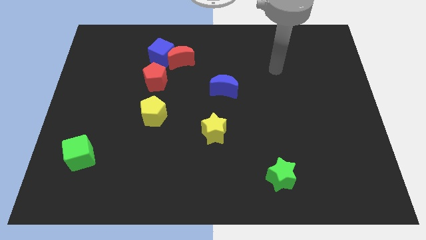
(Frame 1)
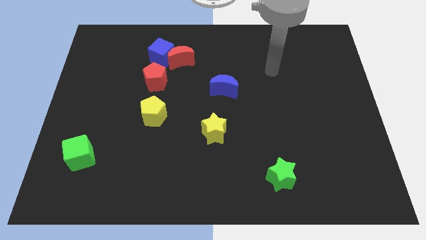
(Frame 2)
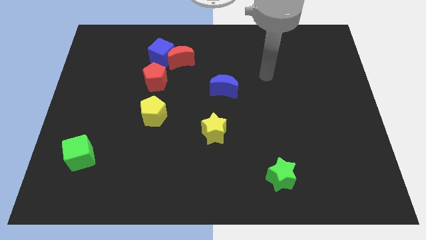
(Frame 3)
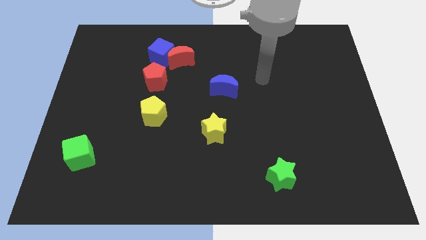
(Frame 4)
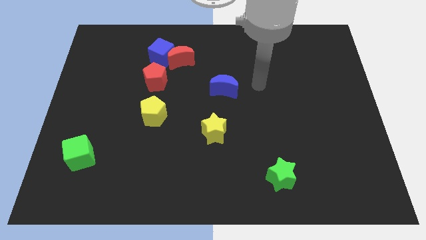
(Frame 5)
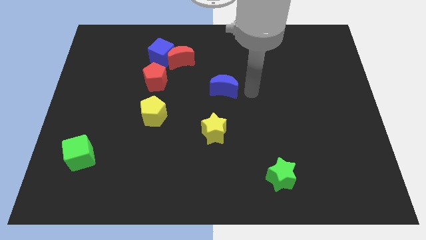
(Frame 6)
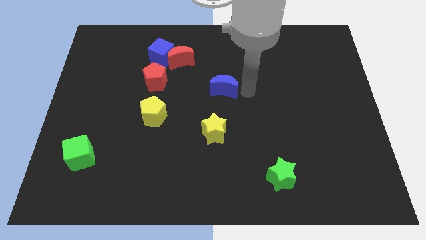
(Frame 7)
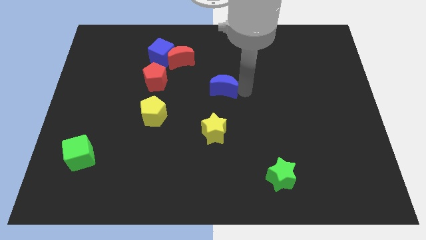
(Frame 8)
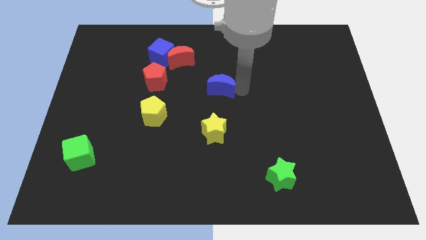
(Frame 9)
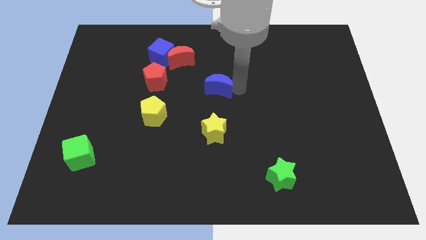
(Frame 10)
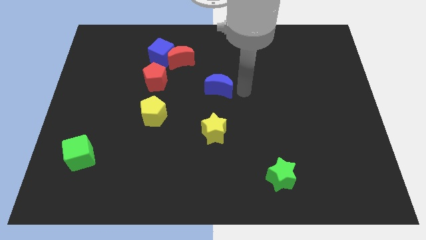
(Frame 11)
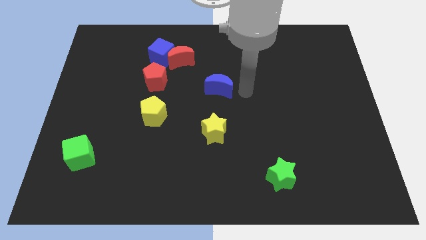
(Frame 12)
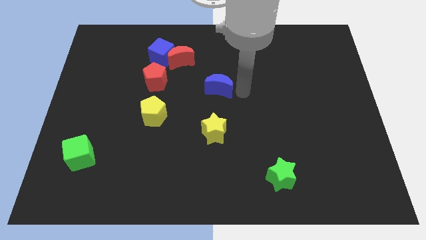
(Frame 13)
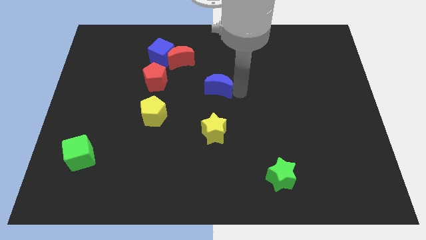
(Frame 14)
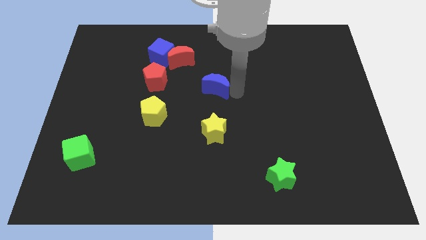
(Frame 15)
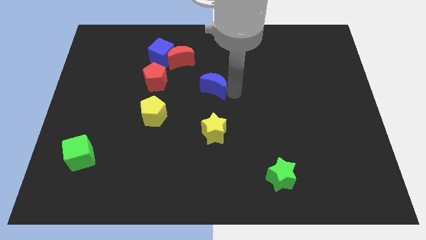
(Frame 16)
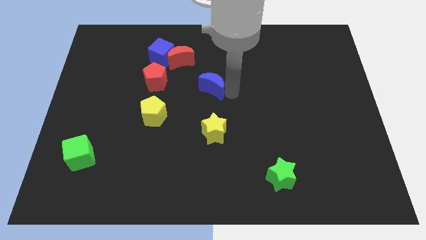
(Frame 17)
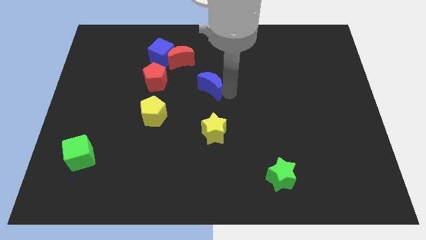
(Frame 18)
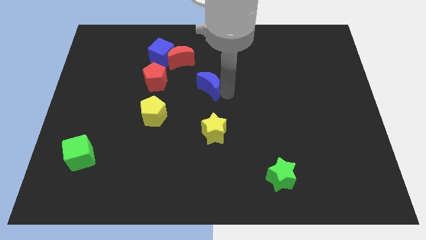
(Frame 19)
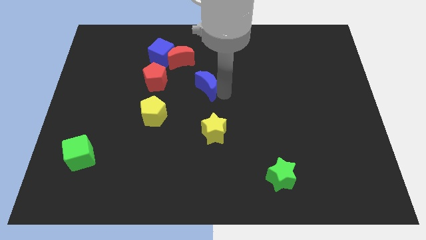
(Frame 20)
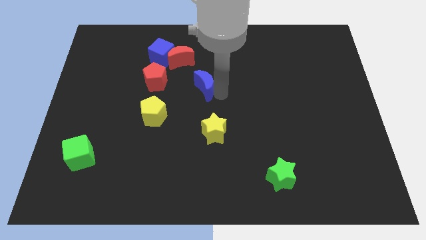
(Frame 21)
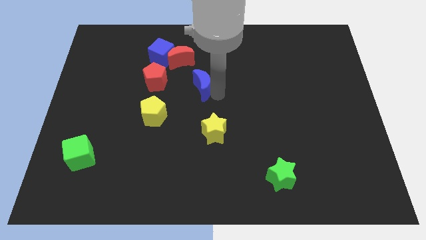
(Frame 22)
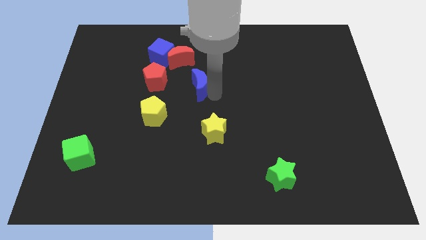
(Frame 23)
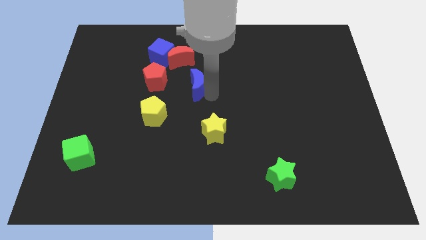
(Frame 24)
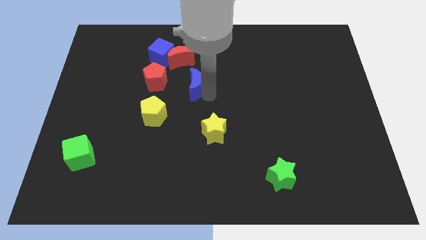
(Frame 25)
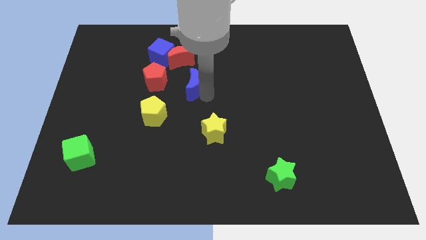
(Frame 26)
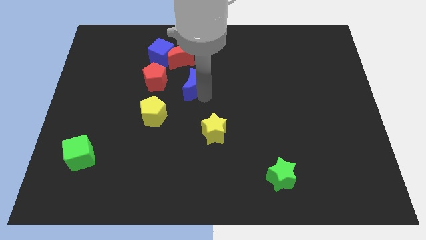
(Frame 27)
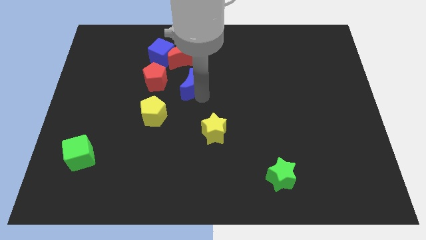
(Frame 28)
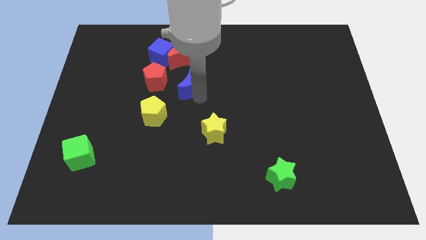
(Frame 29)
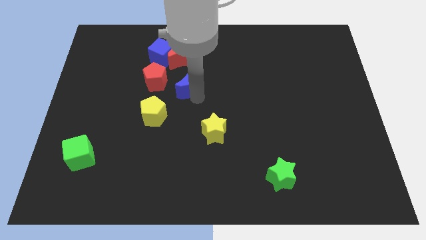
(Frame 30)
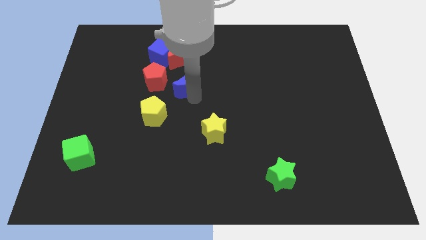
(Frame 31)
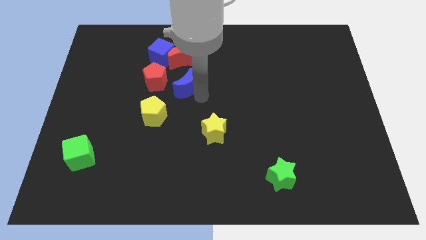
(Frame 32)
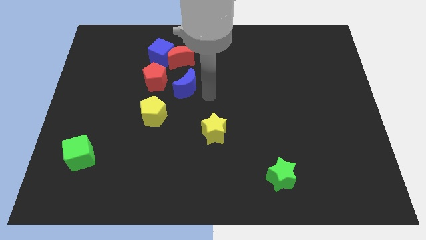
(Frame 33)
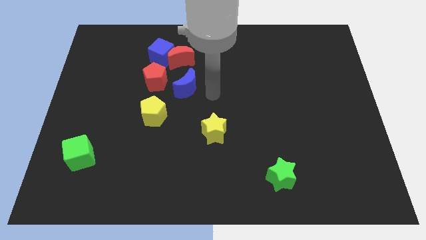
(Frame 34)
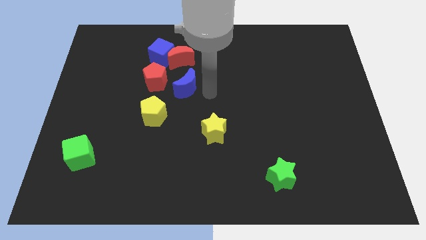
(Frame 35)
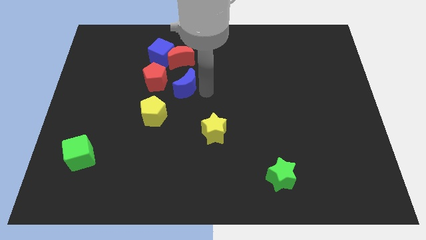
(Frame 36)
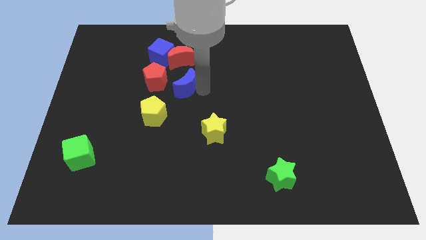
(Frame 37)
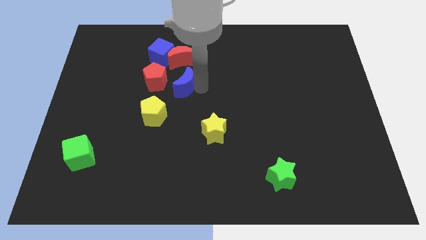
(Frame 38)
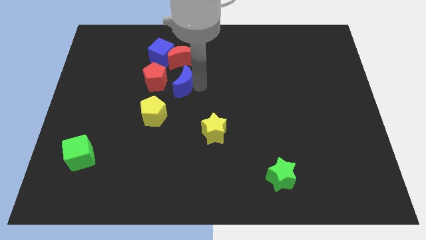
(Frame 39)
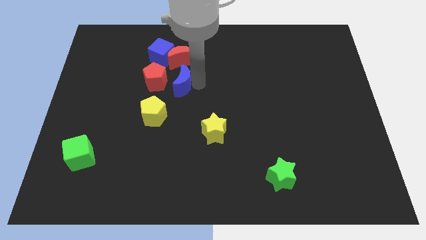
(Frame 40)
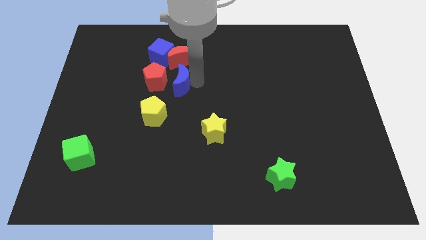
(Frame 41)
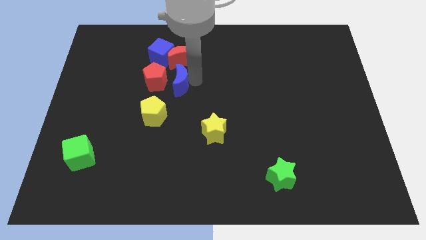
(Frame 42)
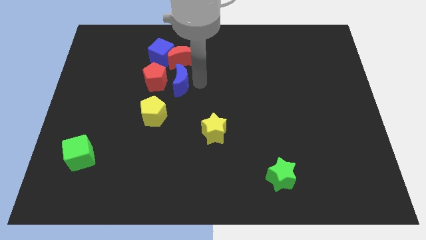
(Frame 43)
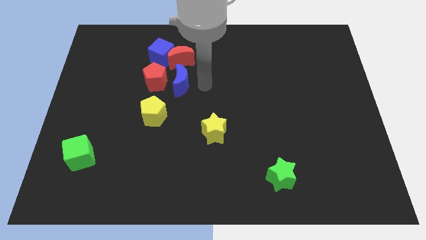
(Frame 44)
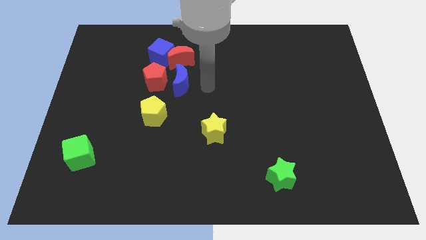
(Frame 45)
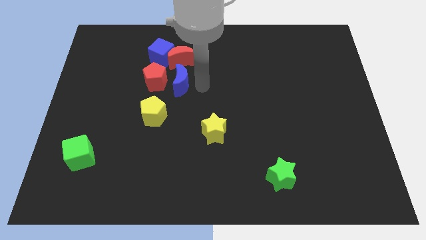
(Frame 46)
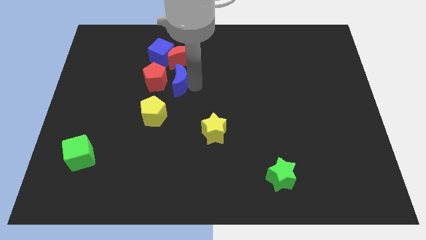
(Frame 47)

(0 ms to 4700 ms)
slide the blue moon towards the red pentagon

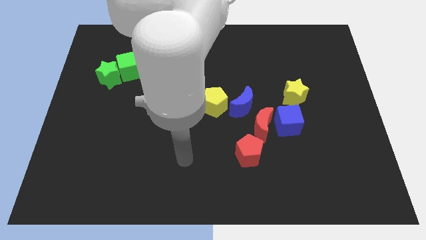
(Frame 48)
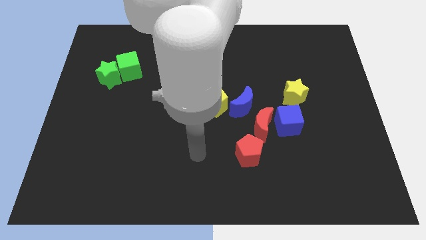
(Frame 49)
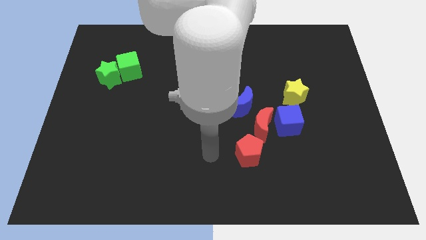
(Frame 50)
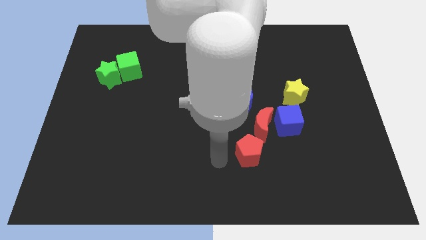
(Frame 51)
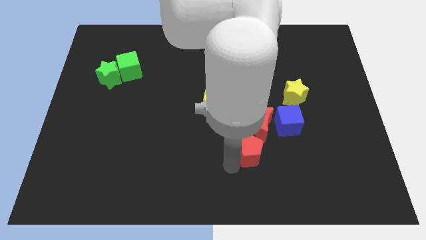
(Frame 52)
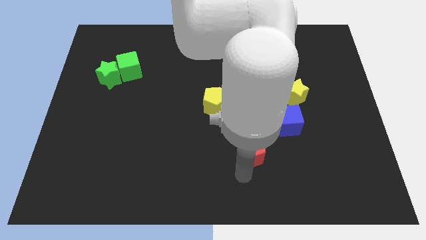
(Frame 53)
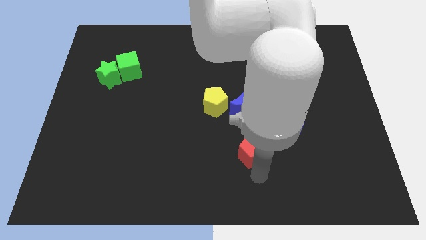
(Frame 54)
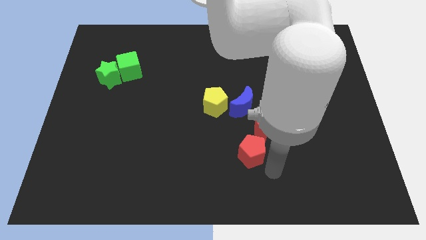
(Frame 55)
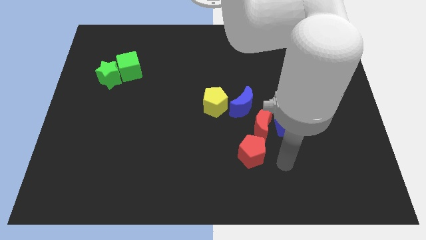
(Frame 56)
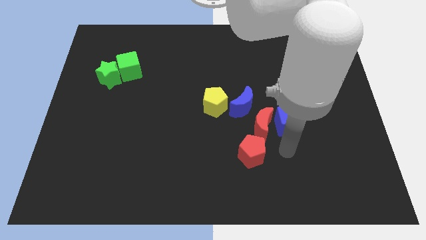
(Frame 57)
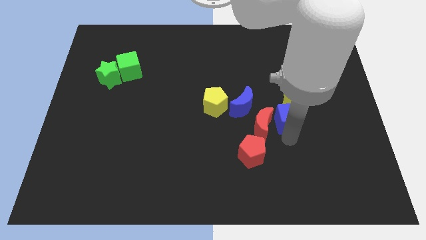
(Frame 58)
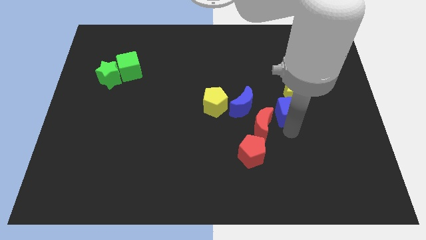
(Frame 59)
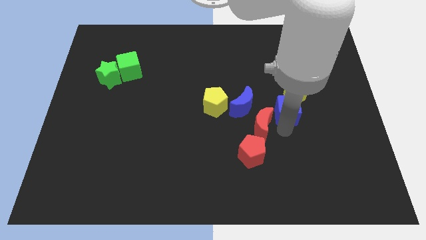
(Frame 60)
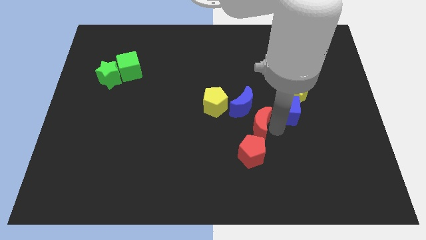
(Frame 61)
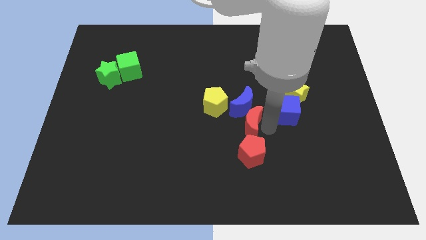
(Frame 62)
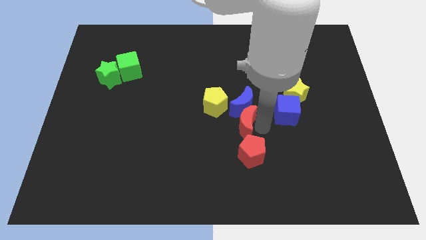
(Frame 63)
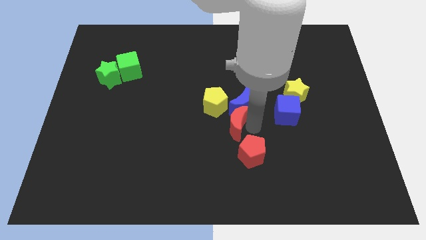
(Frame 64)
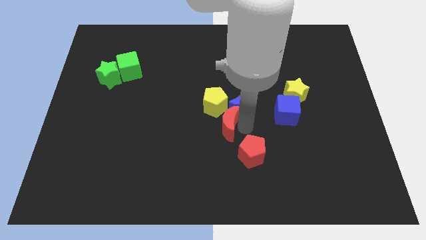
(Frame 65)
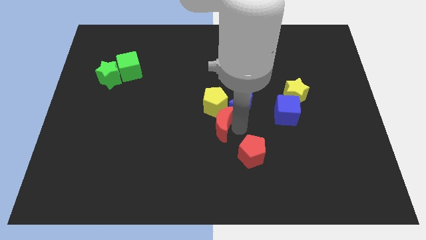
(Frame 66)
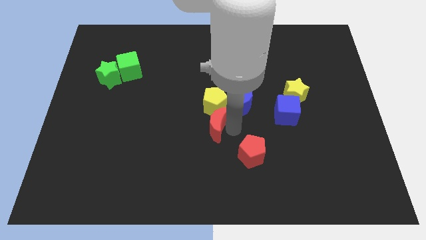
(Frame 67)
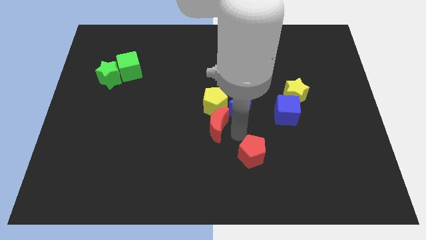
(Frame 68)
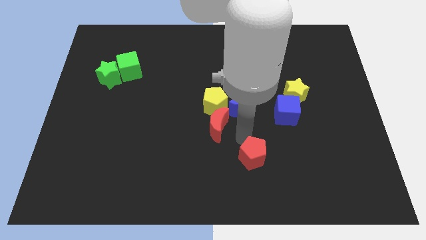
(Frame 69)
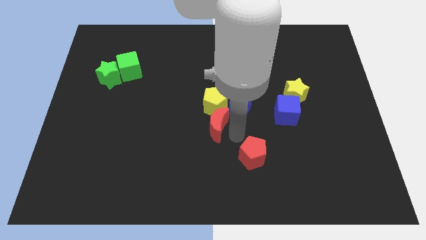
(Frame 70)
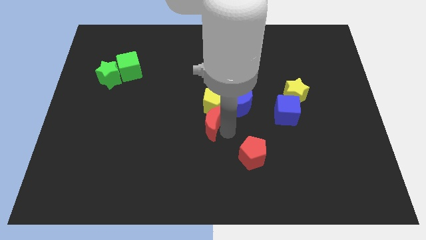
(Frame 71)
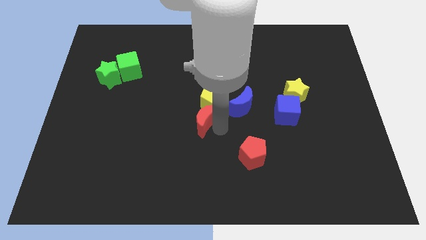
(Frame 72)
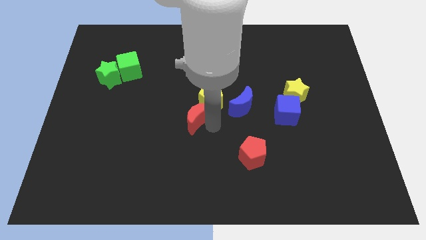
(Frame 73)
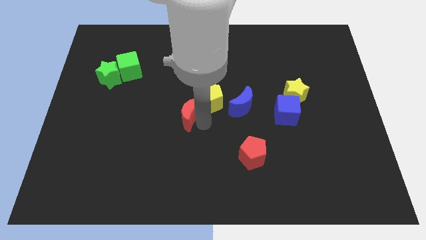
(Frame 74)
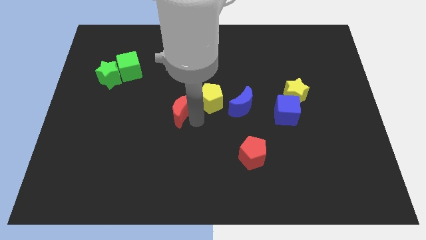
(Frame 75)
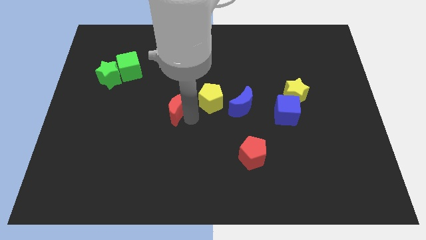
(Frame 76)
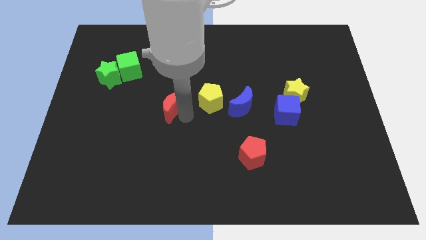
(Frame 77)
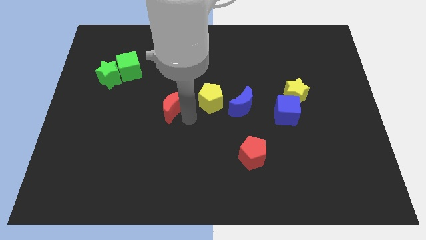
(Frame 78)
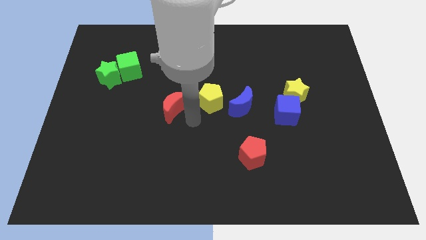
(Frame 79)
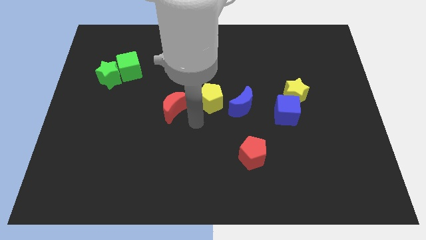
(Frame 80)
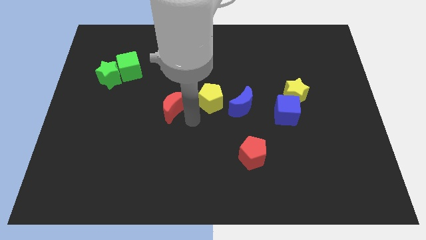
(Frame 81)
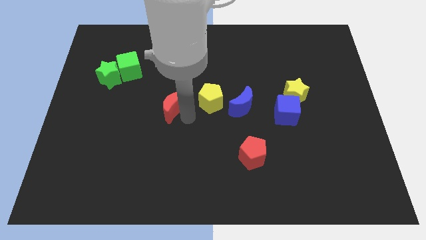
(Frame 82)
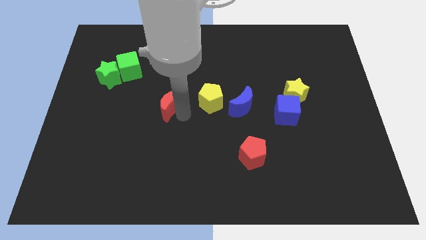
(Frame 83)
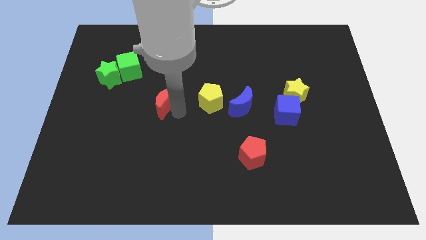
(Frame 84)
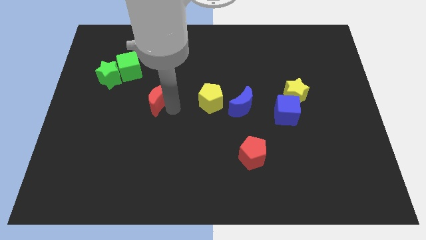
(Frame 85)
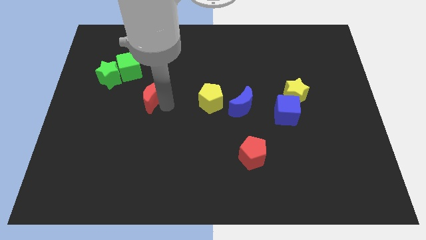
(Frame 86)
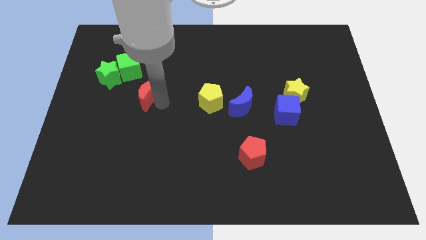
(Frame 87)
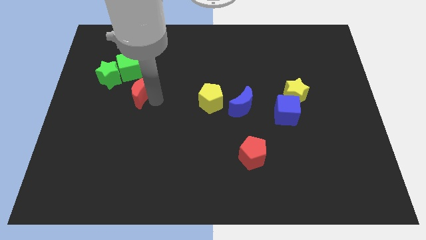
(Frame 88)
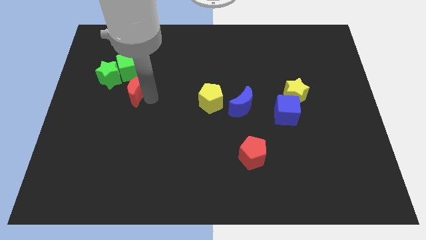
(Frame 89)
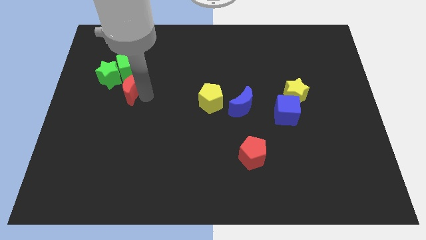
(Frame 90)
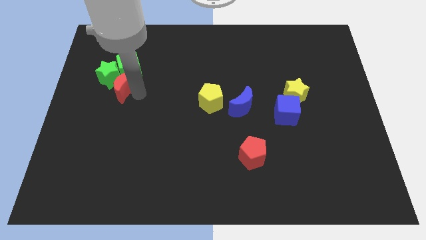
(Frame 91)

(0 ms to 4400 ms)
put the red moon to the green star
